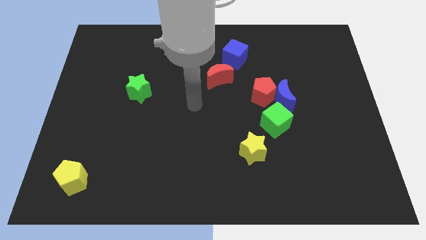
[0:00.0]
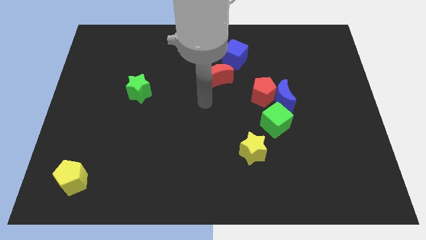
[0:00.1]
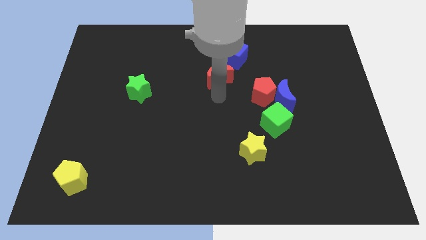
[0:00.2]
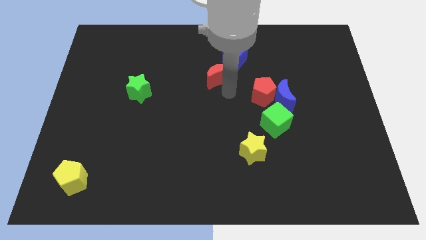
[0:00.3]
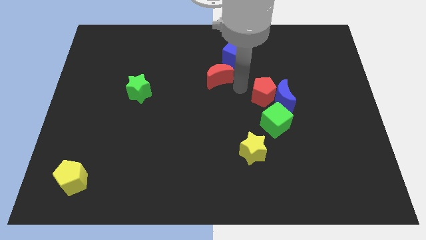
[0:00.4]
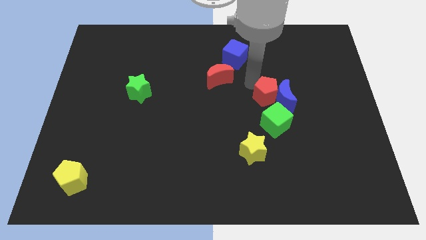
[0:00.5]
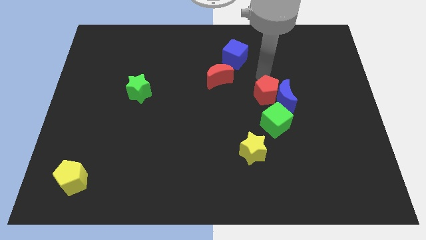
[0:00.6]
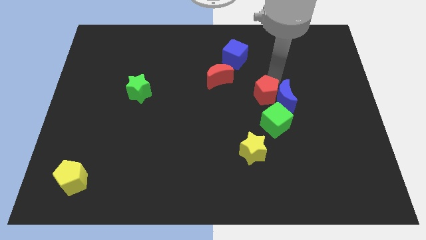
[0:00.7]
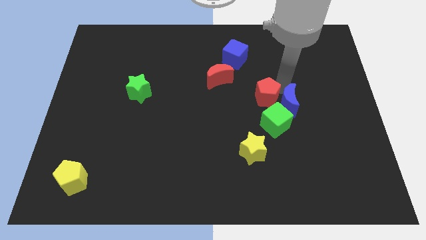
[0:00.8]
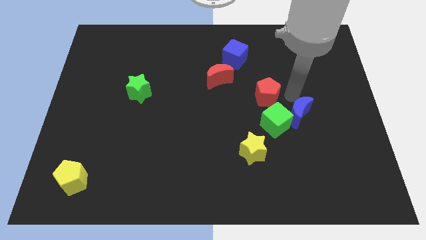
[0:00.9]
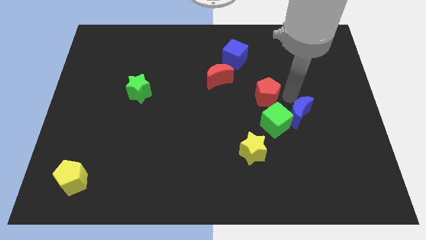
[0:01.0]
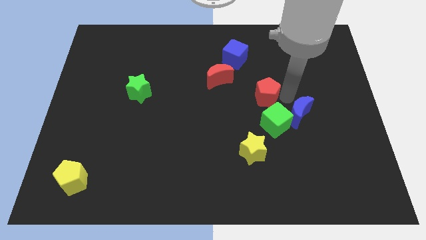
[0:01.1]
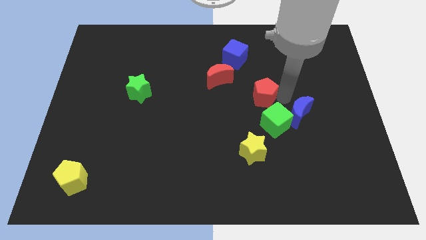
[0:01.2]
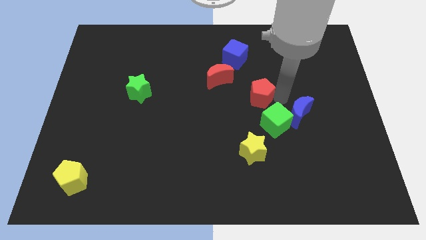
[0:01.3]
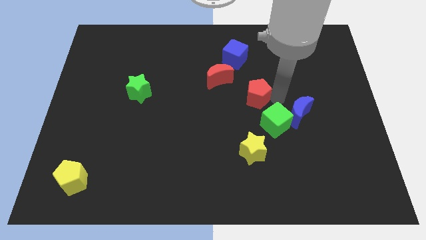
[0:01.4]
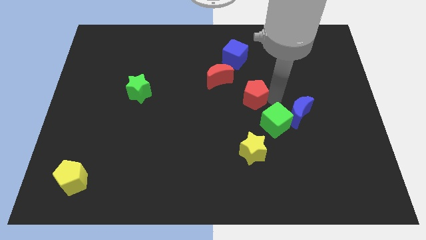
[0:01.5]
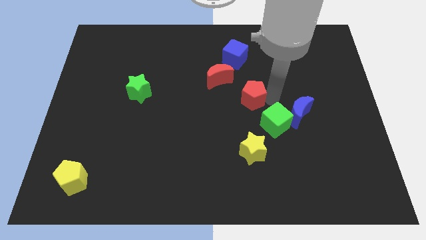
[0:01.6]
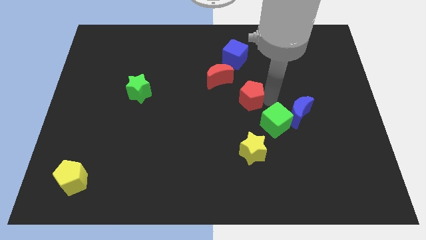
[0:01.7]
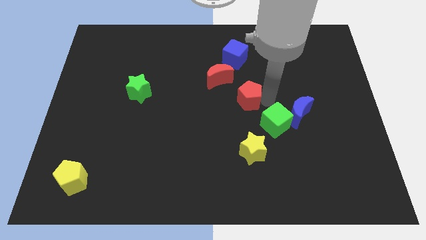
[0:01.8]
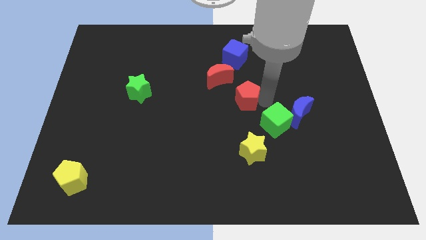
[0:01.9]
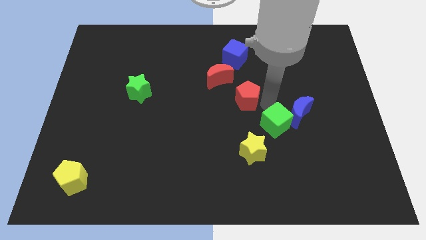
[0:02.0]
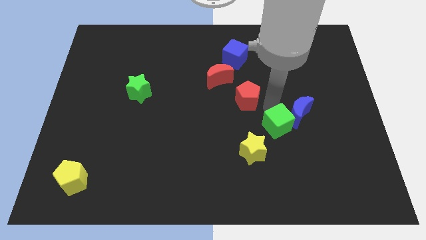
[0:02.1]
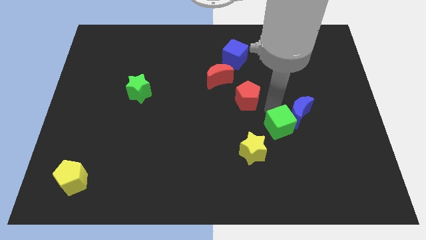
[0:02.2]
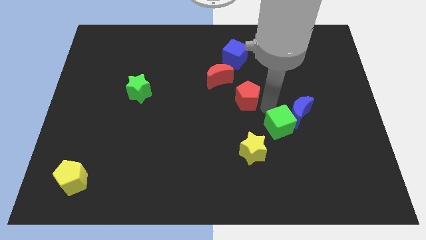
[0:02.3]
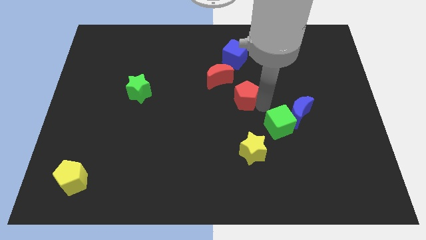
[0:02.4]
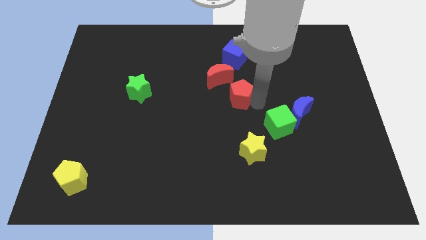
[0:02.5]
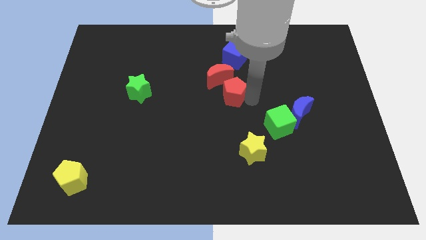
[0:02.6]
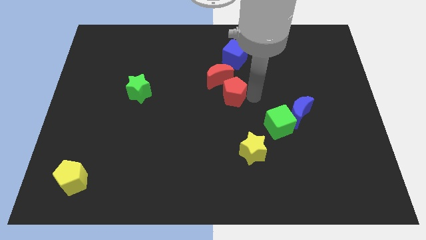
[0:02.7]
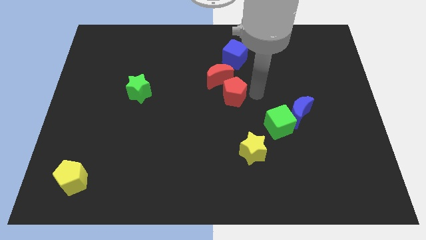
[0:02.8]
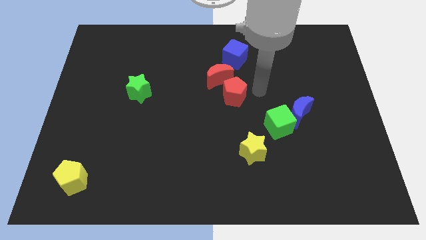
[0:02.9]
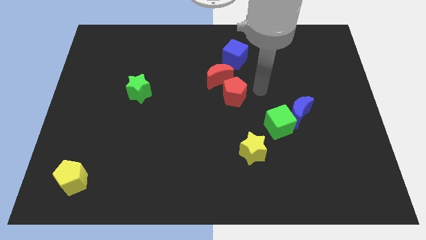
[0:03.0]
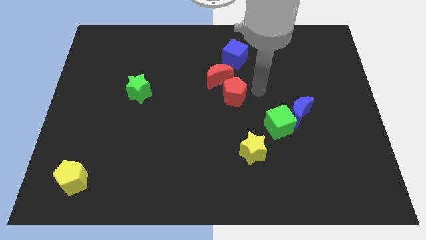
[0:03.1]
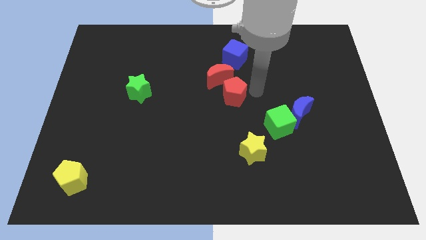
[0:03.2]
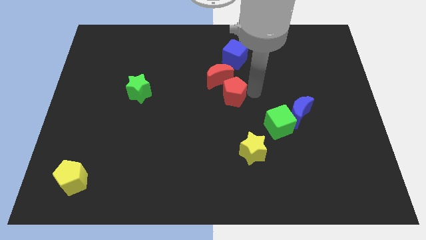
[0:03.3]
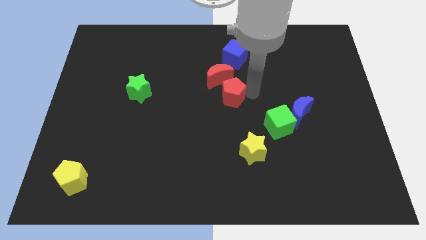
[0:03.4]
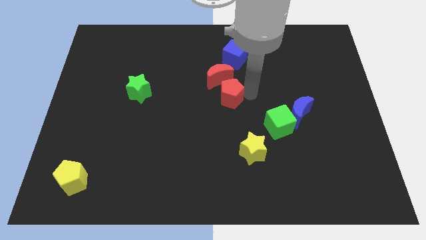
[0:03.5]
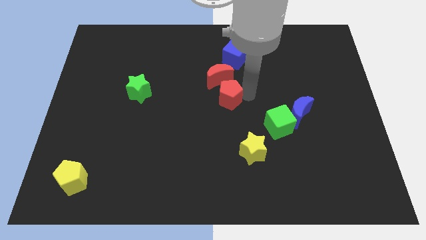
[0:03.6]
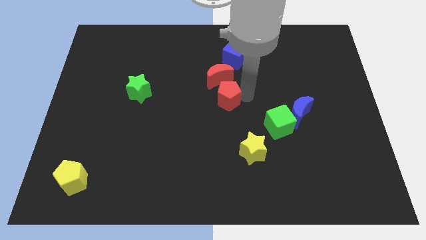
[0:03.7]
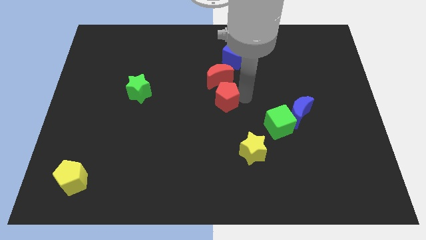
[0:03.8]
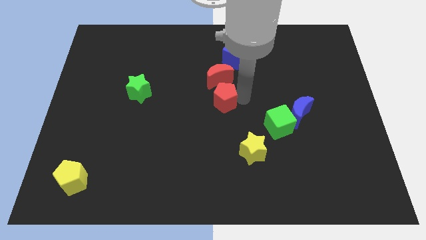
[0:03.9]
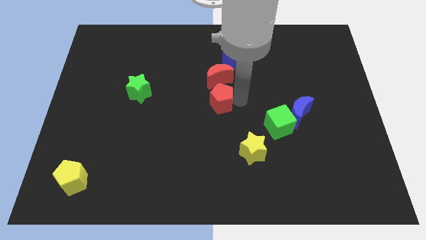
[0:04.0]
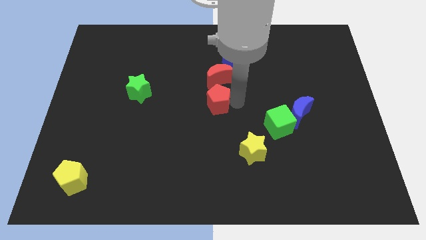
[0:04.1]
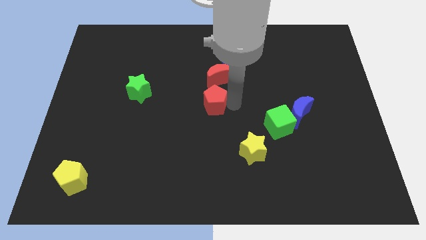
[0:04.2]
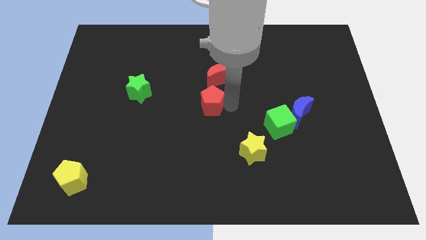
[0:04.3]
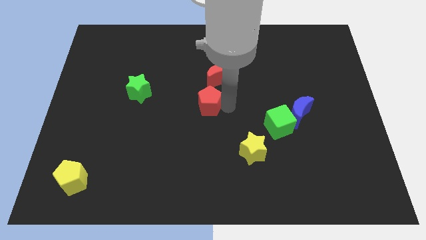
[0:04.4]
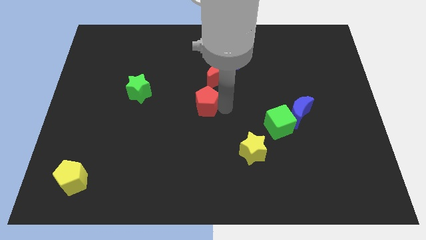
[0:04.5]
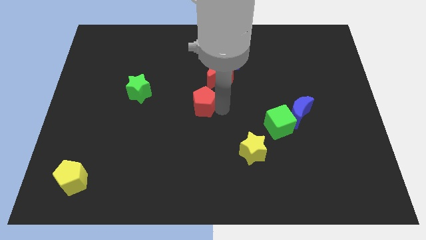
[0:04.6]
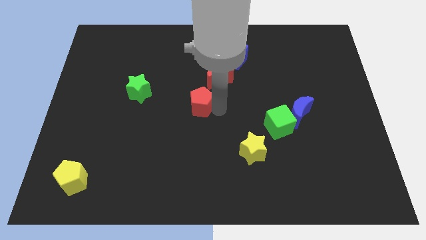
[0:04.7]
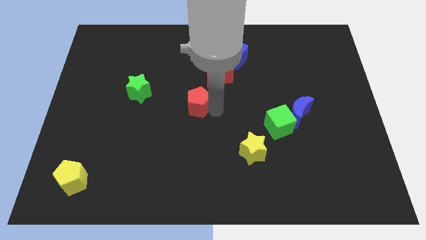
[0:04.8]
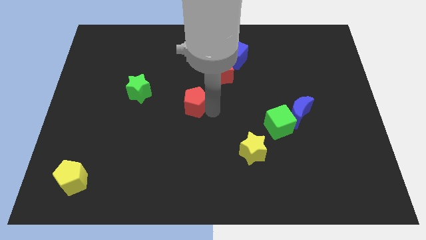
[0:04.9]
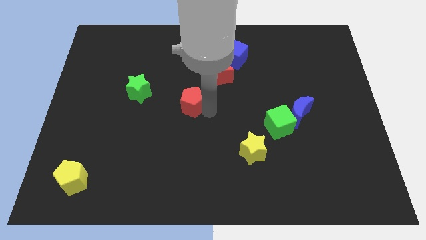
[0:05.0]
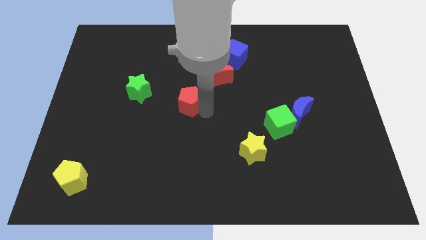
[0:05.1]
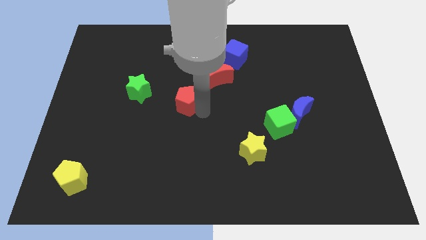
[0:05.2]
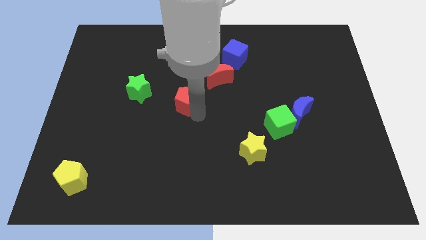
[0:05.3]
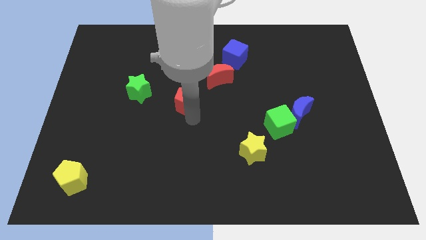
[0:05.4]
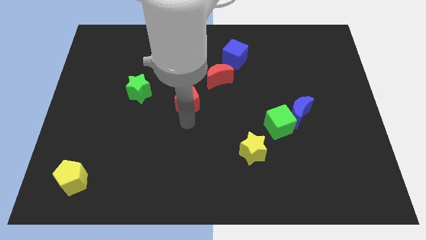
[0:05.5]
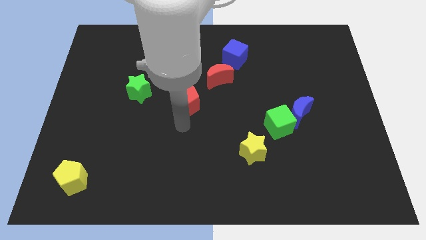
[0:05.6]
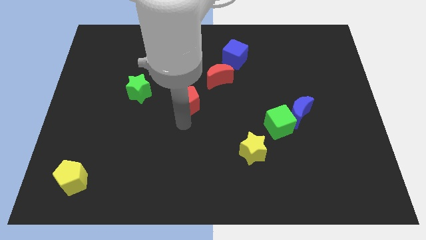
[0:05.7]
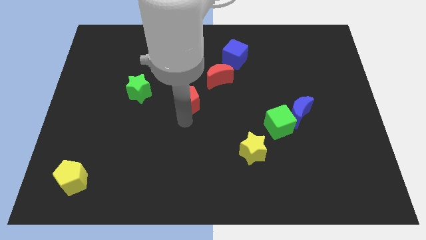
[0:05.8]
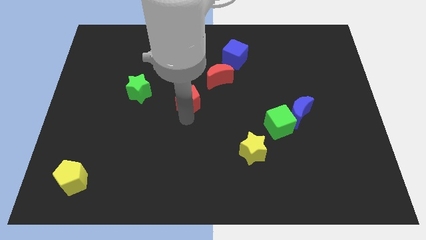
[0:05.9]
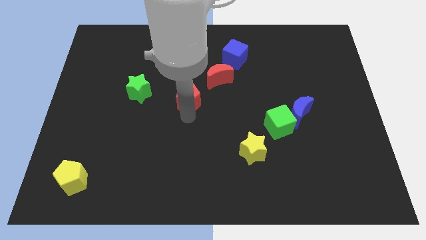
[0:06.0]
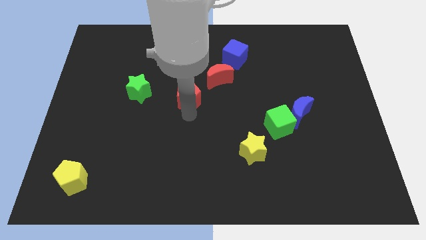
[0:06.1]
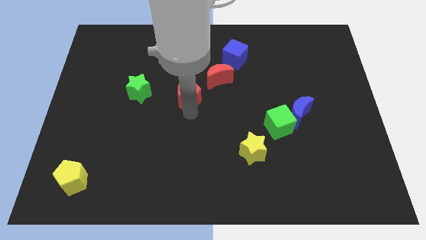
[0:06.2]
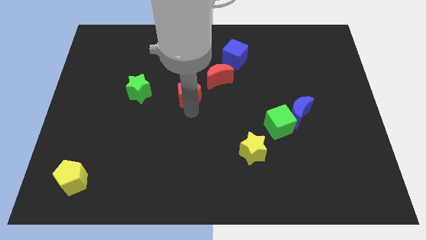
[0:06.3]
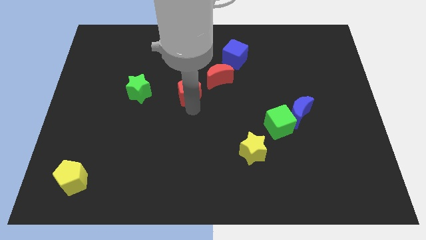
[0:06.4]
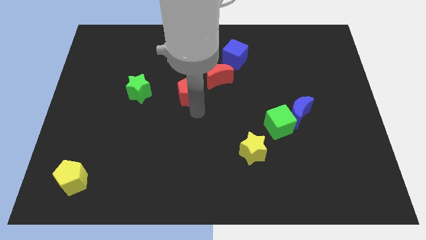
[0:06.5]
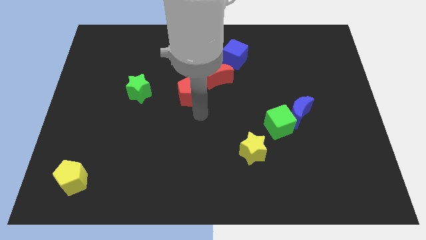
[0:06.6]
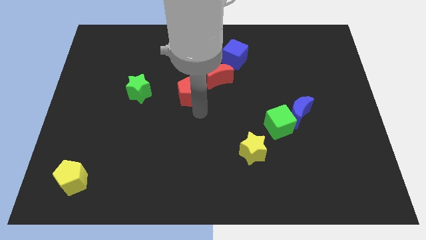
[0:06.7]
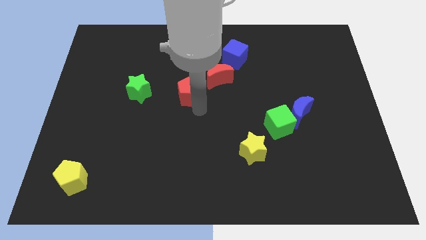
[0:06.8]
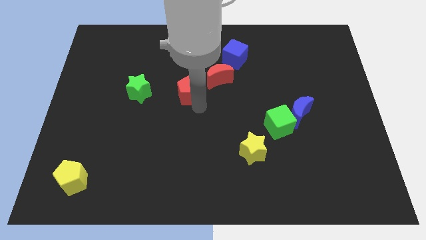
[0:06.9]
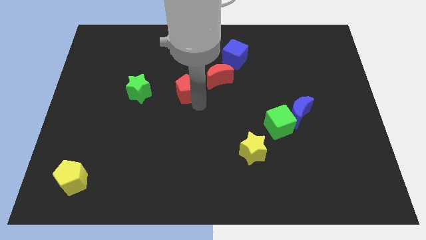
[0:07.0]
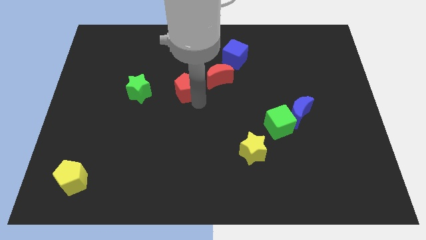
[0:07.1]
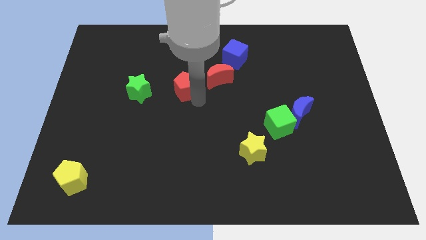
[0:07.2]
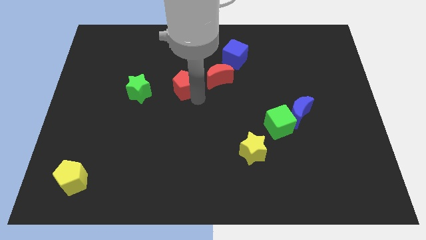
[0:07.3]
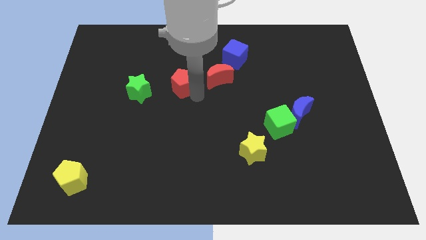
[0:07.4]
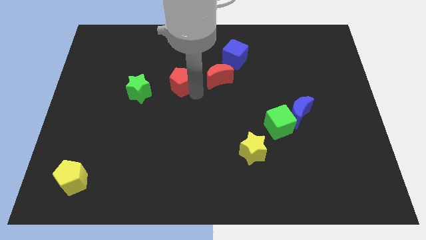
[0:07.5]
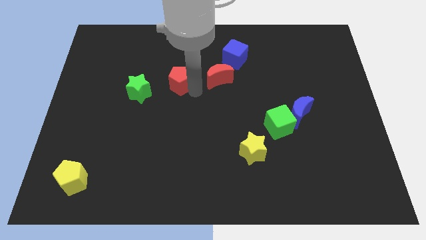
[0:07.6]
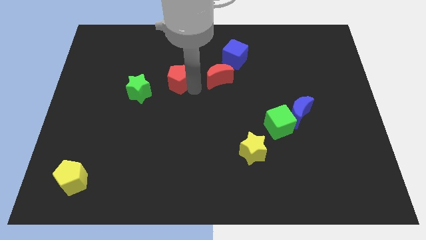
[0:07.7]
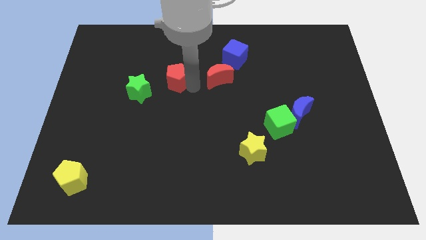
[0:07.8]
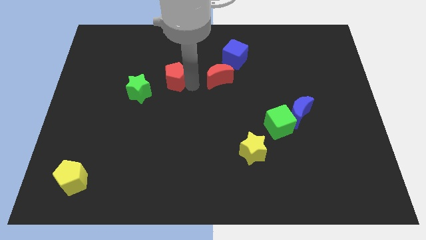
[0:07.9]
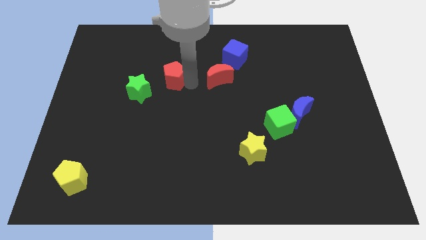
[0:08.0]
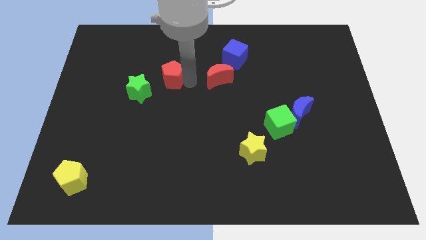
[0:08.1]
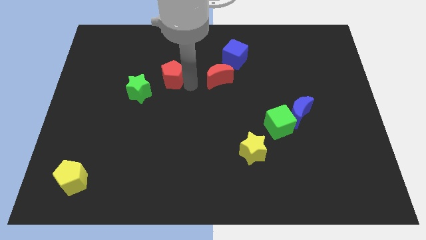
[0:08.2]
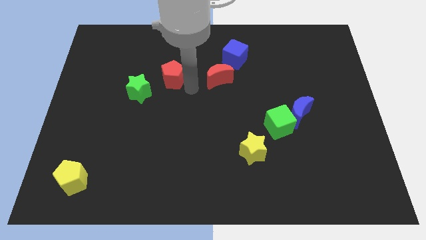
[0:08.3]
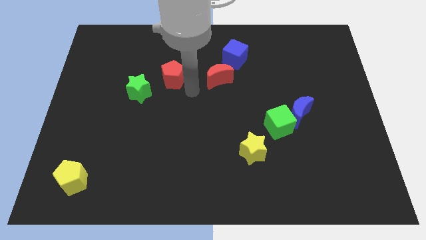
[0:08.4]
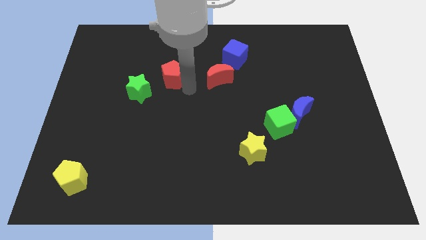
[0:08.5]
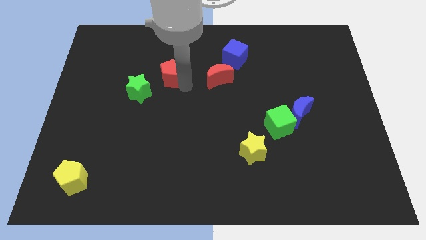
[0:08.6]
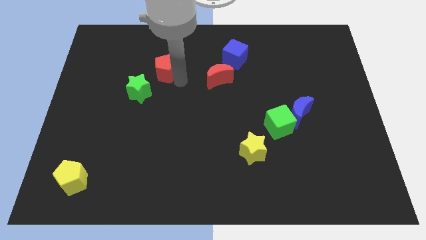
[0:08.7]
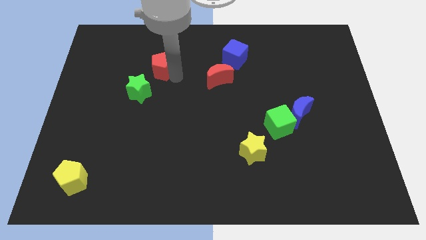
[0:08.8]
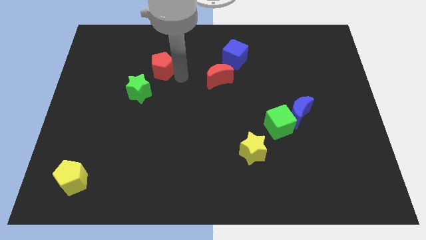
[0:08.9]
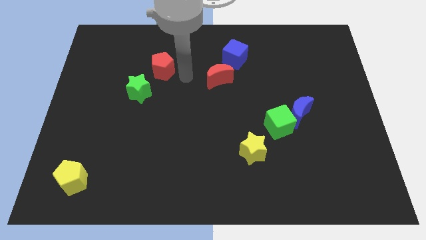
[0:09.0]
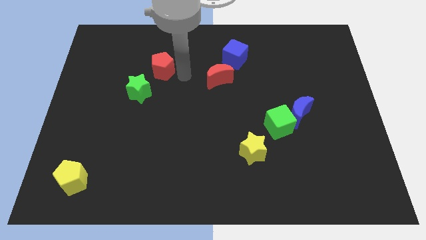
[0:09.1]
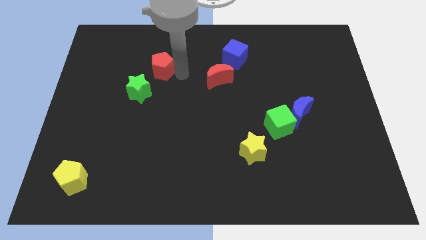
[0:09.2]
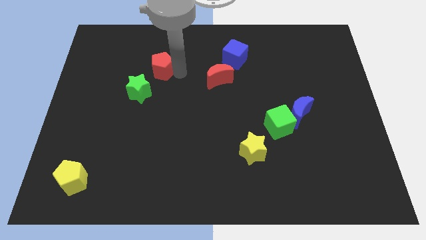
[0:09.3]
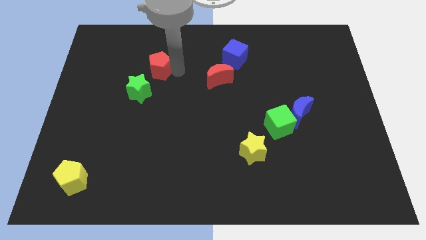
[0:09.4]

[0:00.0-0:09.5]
put the red pentagon to the top side of the green star
